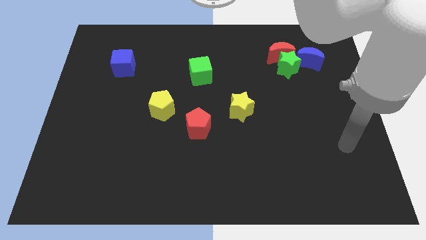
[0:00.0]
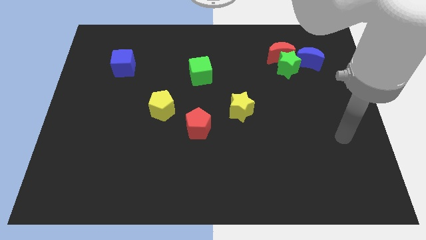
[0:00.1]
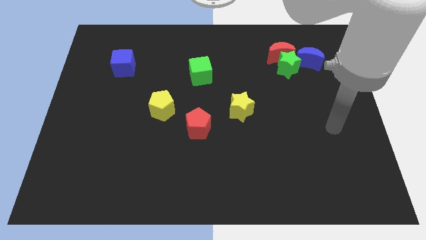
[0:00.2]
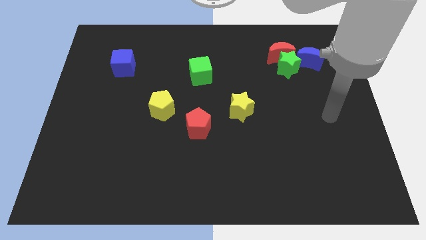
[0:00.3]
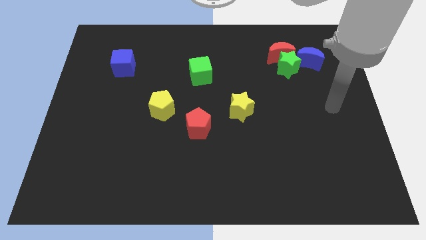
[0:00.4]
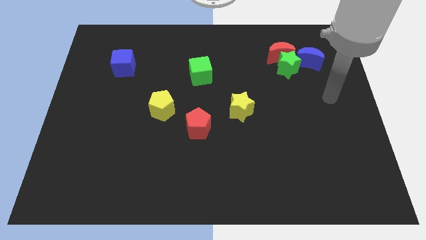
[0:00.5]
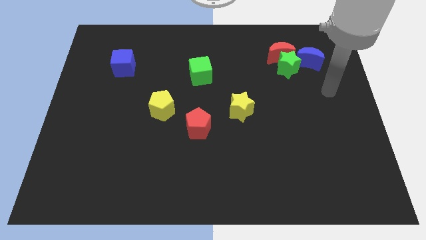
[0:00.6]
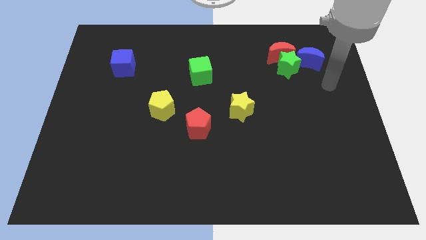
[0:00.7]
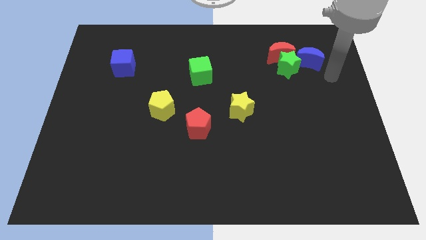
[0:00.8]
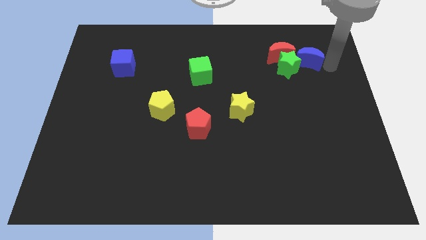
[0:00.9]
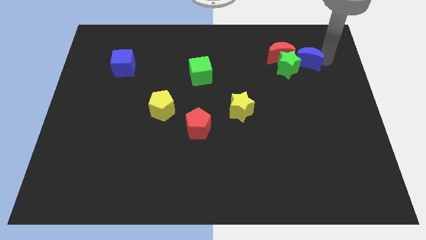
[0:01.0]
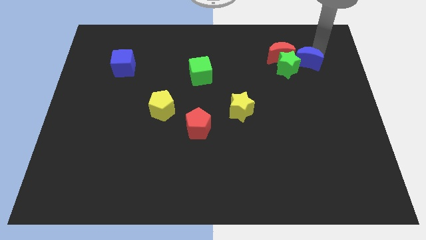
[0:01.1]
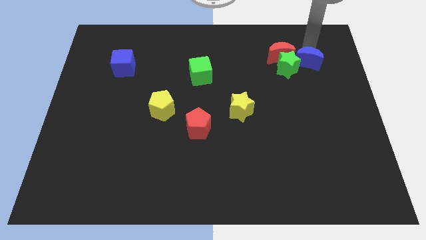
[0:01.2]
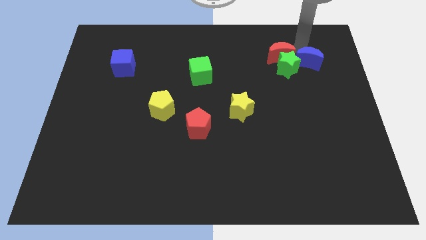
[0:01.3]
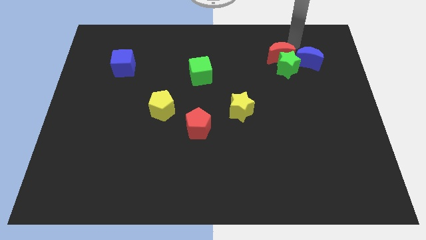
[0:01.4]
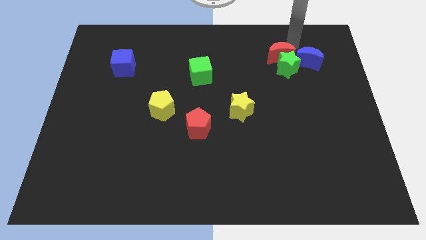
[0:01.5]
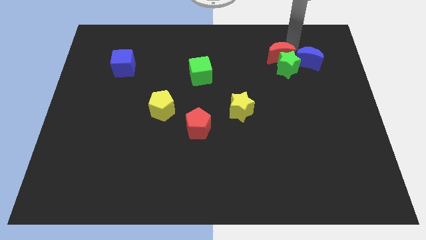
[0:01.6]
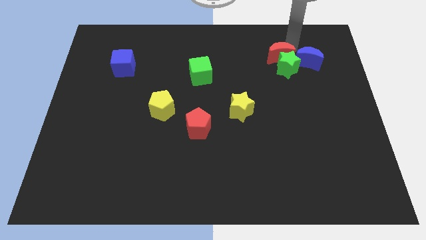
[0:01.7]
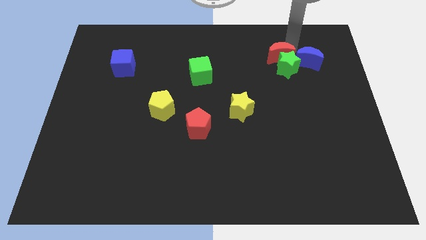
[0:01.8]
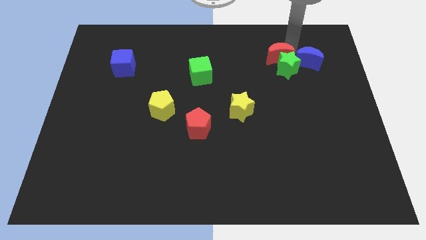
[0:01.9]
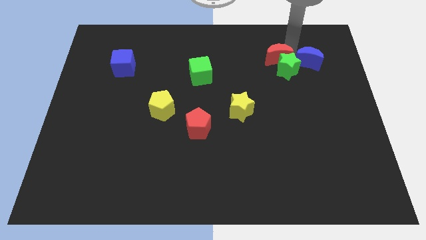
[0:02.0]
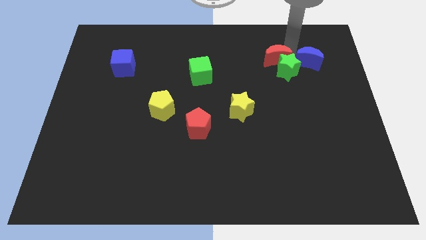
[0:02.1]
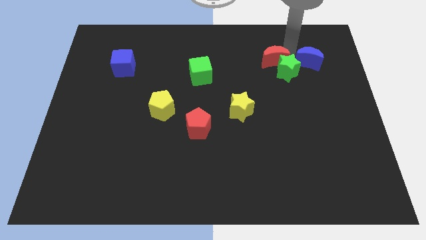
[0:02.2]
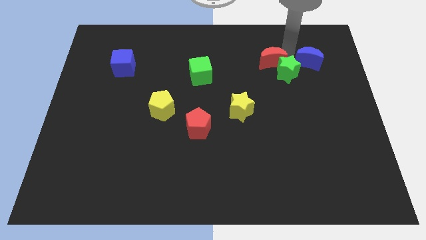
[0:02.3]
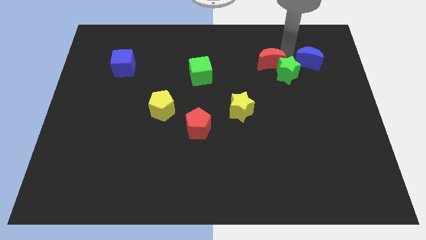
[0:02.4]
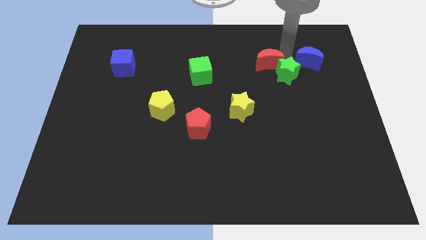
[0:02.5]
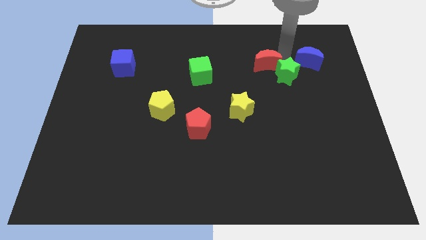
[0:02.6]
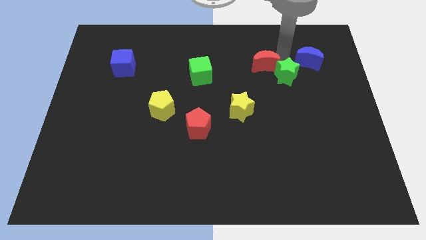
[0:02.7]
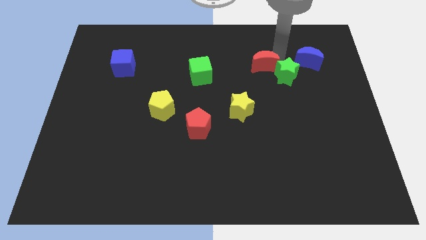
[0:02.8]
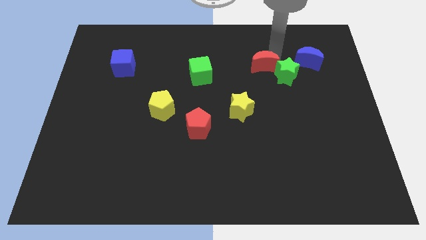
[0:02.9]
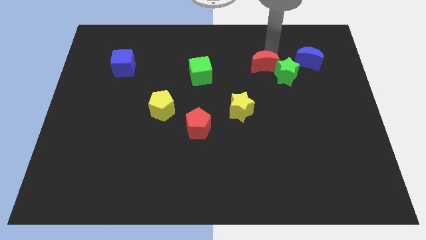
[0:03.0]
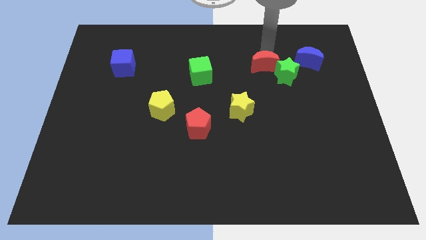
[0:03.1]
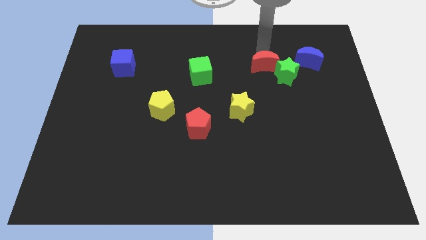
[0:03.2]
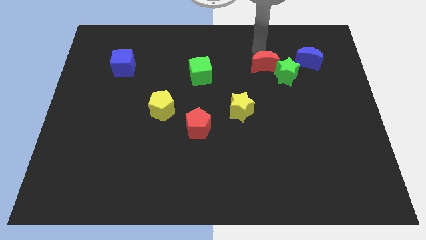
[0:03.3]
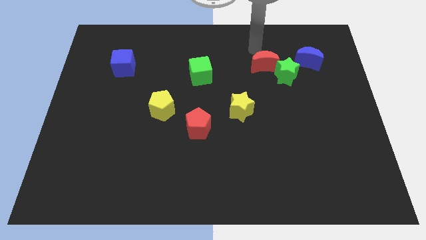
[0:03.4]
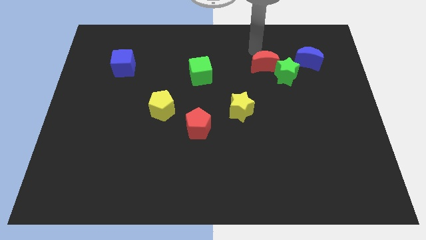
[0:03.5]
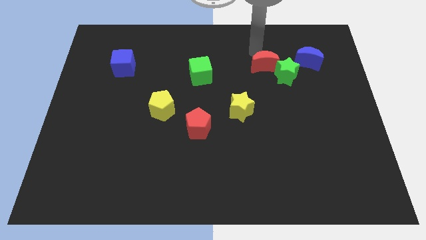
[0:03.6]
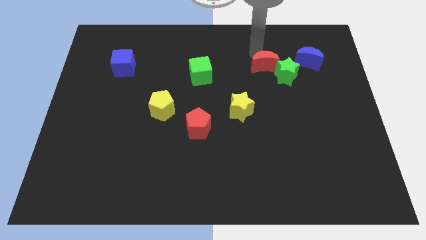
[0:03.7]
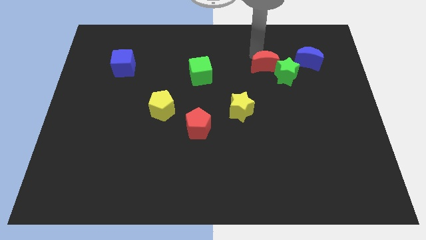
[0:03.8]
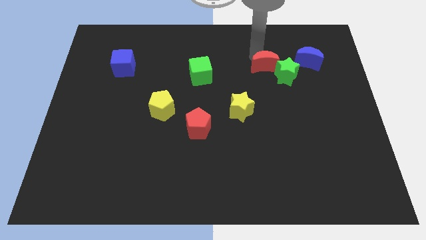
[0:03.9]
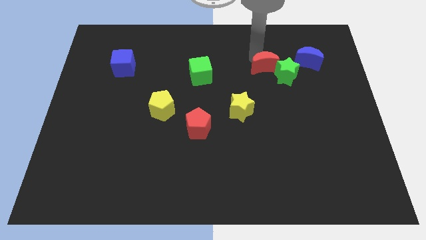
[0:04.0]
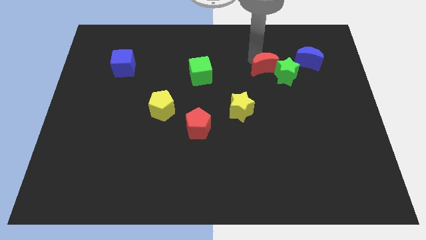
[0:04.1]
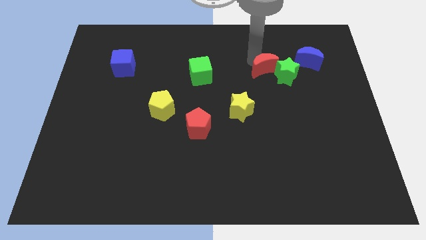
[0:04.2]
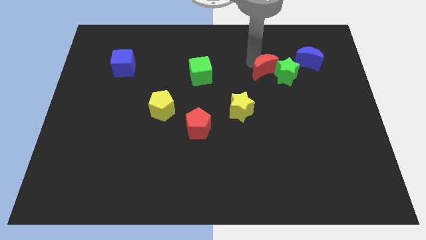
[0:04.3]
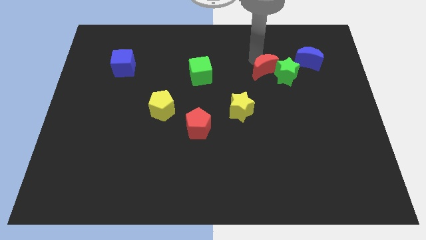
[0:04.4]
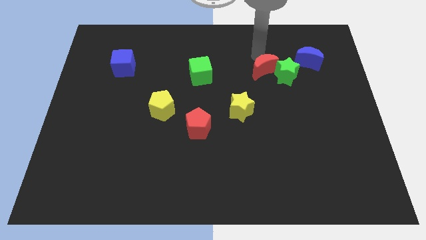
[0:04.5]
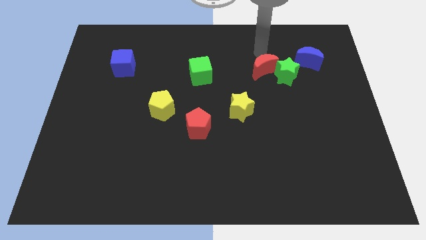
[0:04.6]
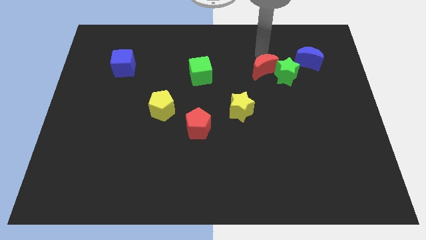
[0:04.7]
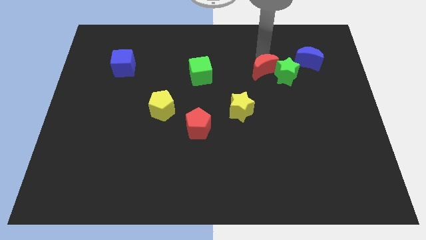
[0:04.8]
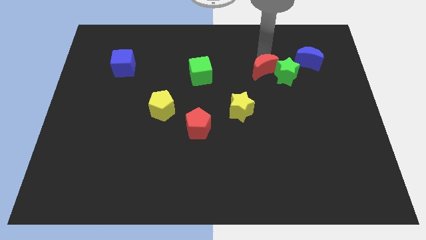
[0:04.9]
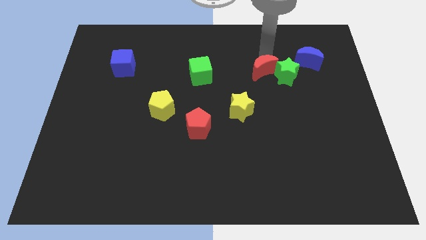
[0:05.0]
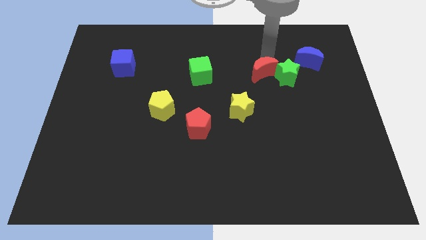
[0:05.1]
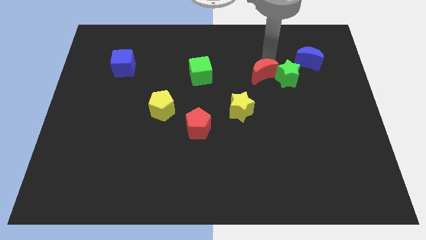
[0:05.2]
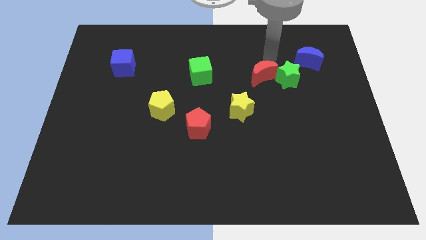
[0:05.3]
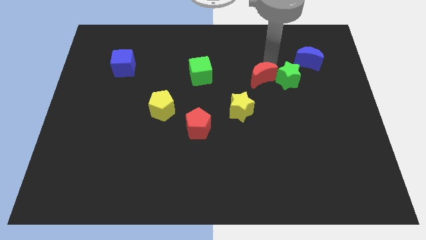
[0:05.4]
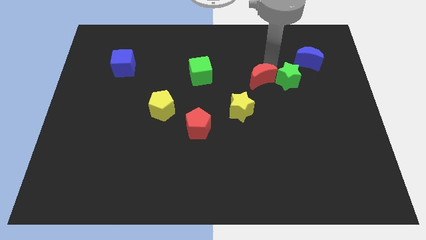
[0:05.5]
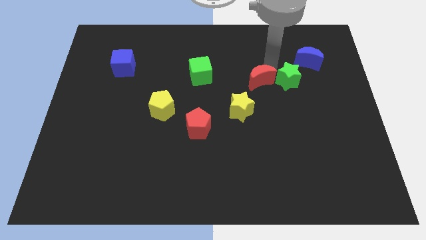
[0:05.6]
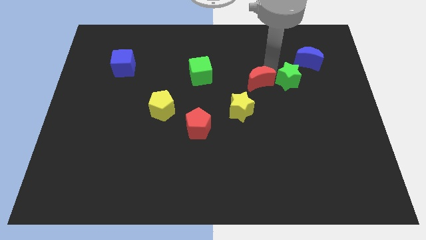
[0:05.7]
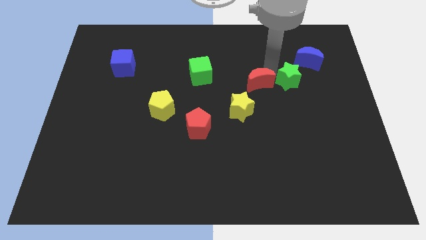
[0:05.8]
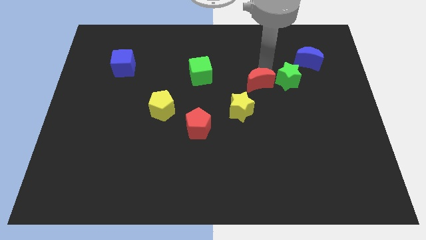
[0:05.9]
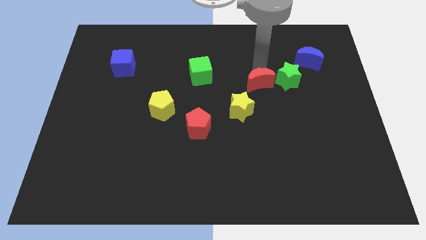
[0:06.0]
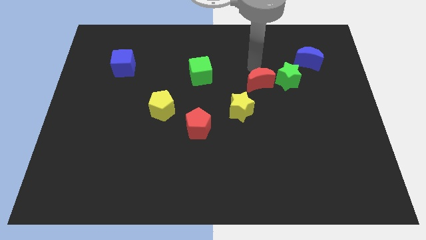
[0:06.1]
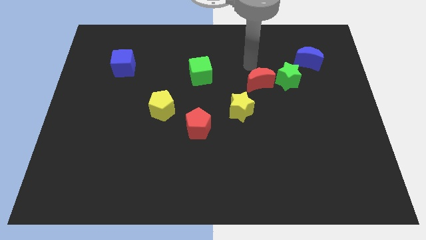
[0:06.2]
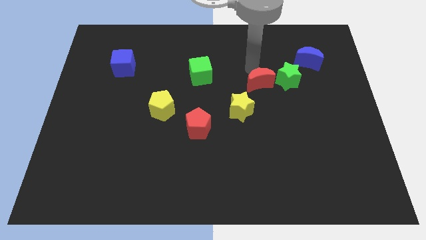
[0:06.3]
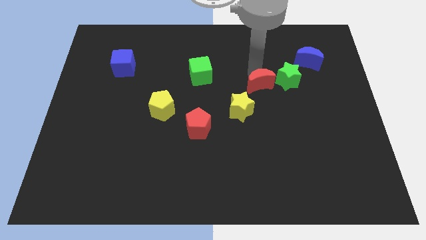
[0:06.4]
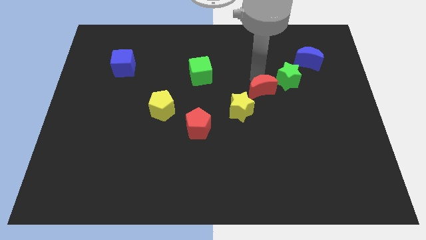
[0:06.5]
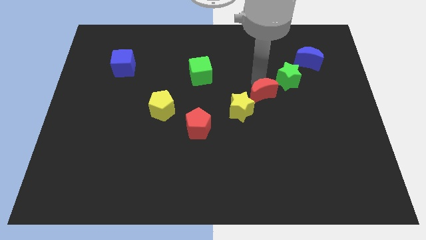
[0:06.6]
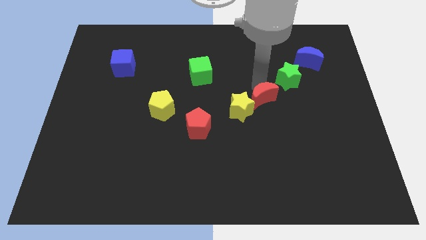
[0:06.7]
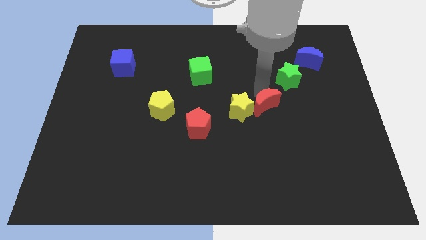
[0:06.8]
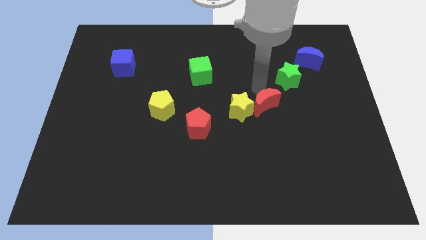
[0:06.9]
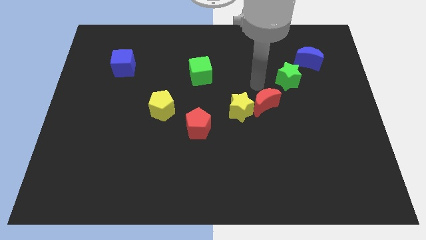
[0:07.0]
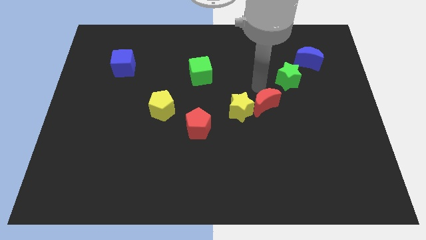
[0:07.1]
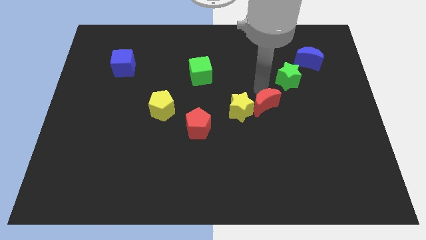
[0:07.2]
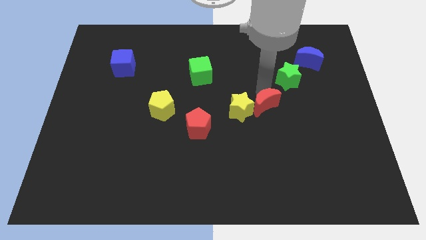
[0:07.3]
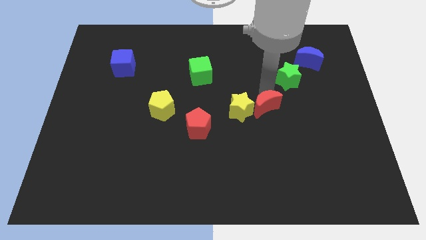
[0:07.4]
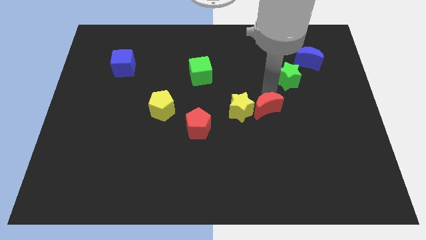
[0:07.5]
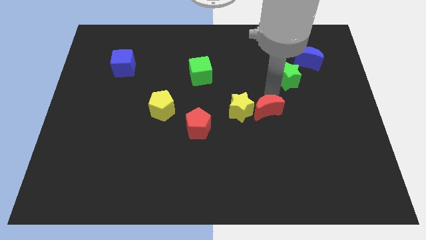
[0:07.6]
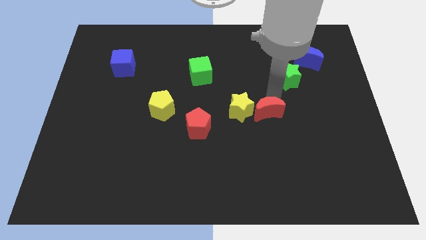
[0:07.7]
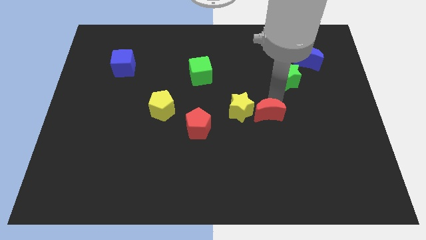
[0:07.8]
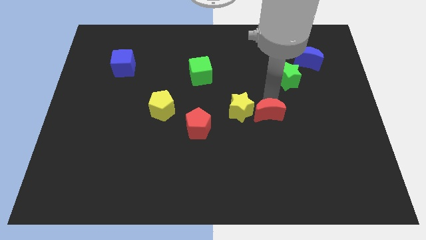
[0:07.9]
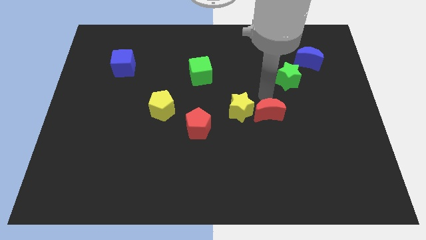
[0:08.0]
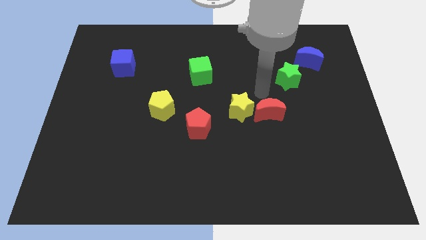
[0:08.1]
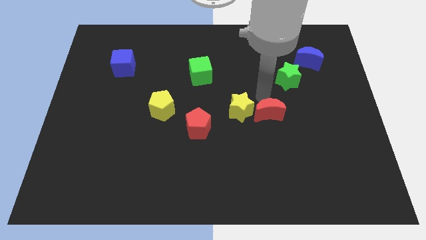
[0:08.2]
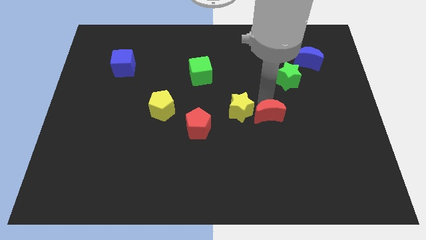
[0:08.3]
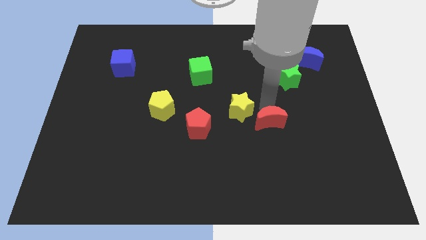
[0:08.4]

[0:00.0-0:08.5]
push the red moon down
